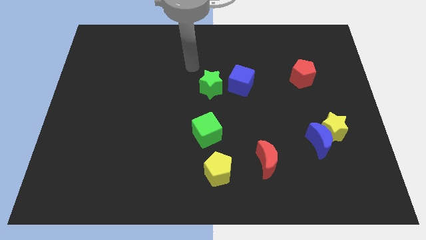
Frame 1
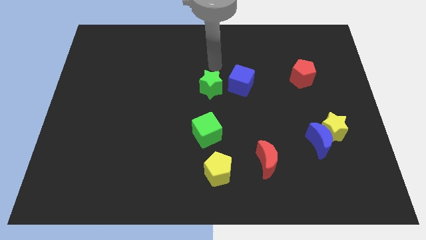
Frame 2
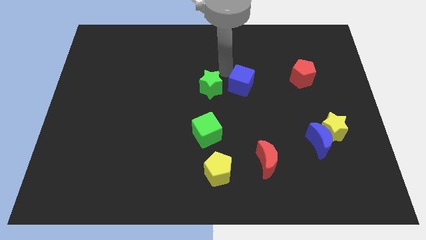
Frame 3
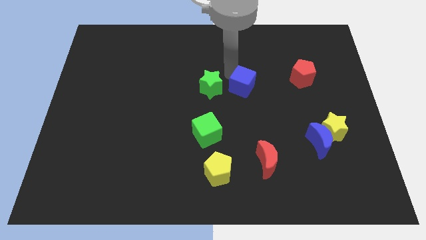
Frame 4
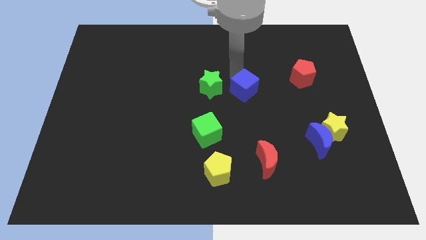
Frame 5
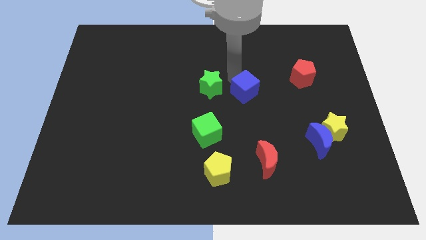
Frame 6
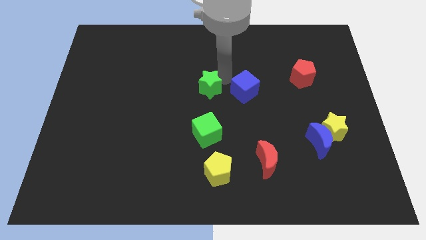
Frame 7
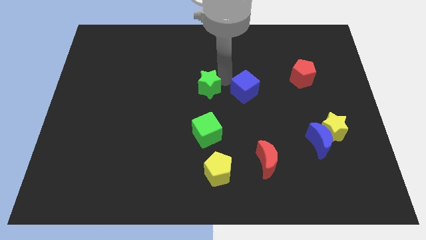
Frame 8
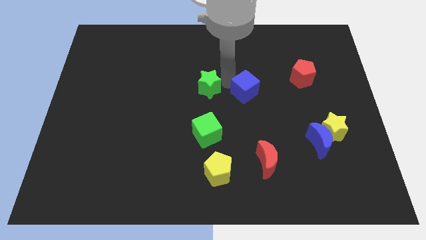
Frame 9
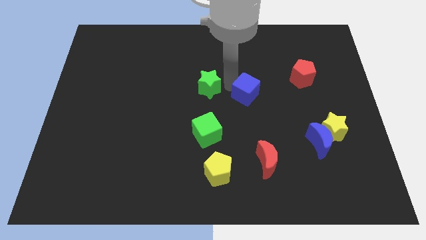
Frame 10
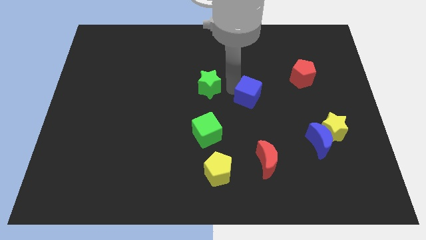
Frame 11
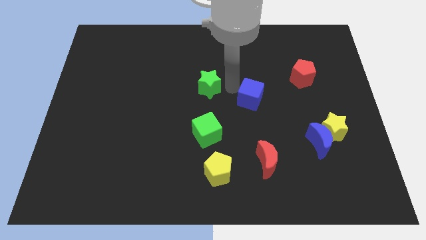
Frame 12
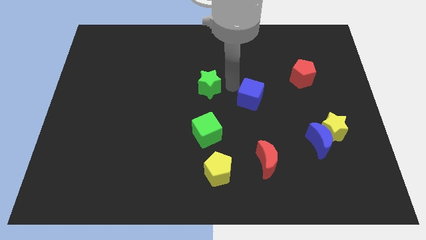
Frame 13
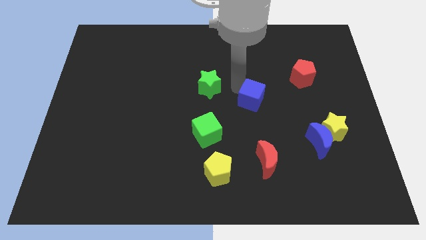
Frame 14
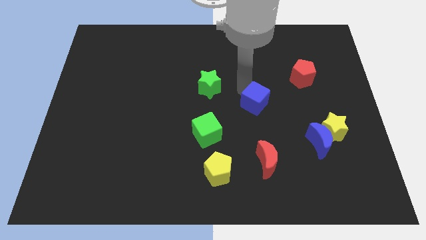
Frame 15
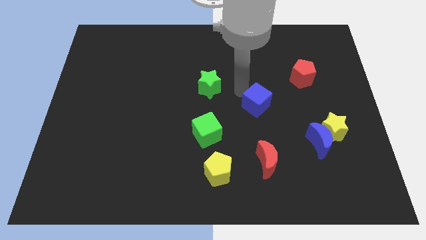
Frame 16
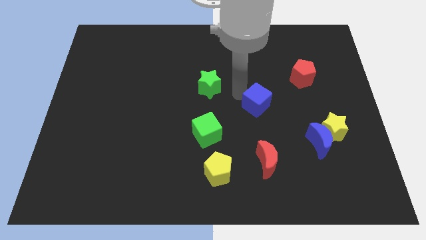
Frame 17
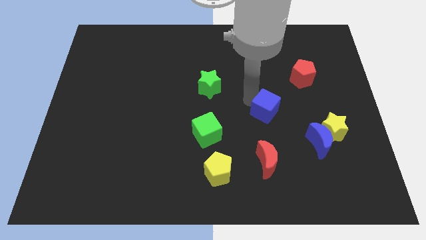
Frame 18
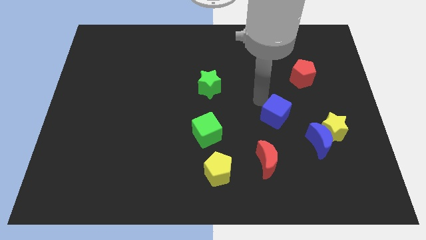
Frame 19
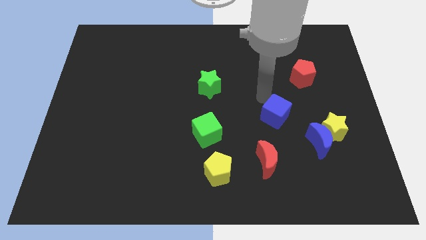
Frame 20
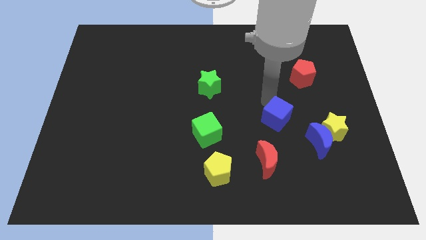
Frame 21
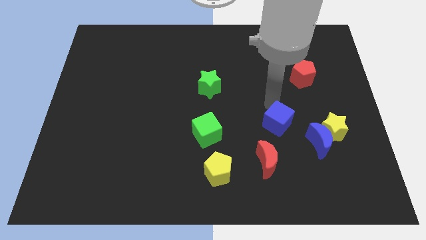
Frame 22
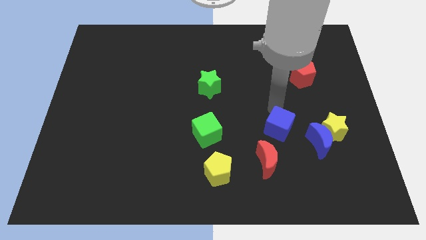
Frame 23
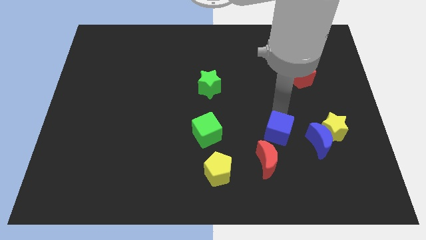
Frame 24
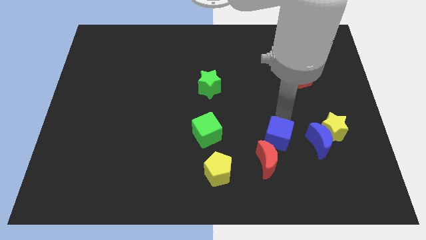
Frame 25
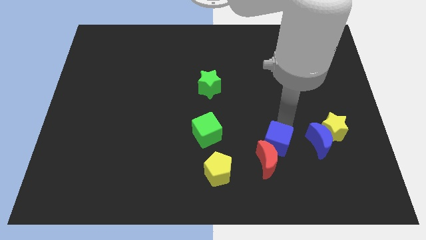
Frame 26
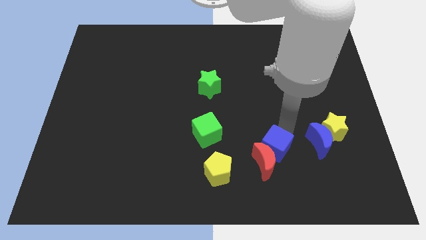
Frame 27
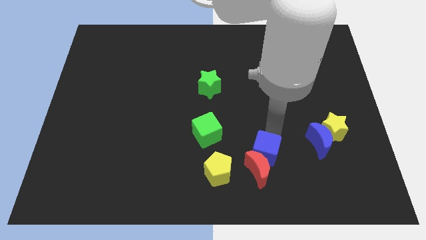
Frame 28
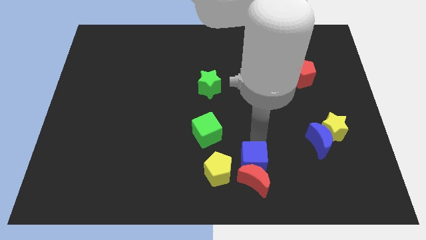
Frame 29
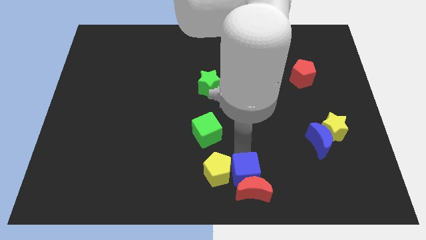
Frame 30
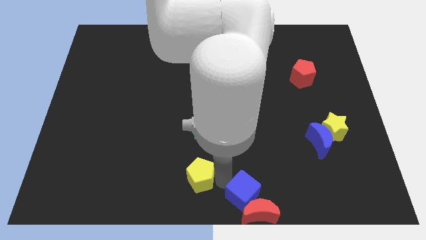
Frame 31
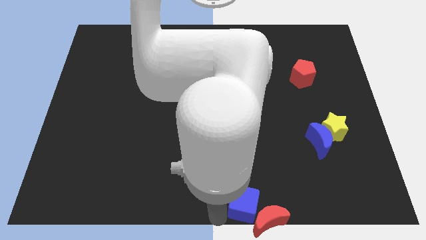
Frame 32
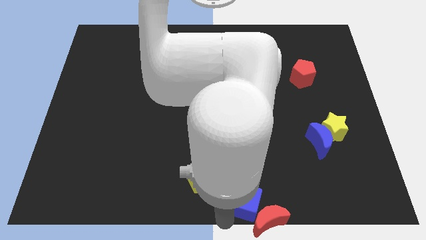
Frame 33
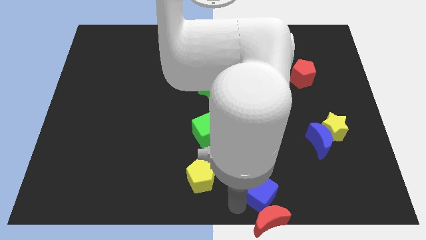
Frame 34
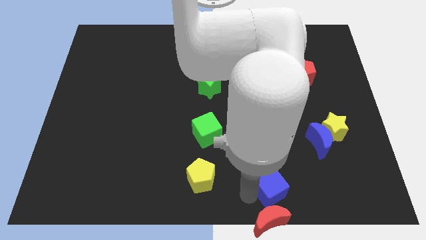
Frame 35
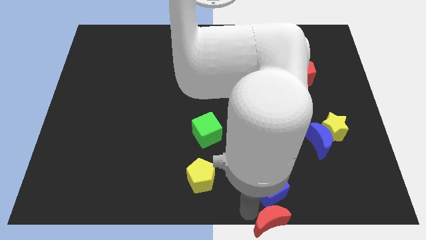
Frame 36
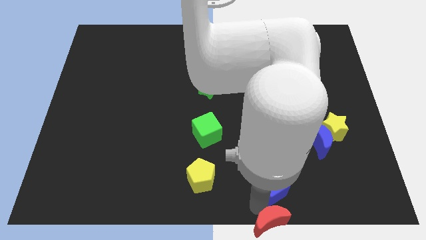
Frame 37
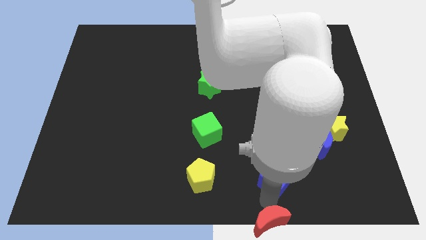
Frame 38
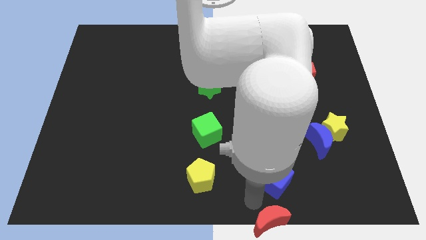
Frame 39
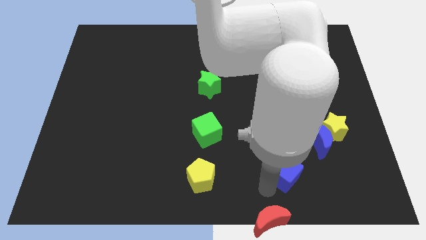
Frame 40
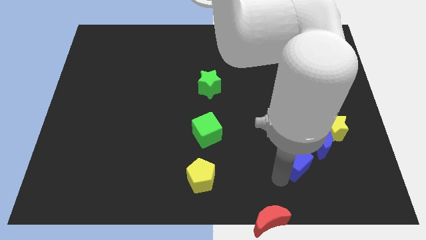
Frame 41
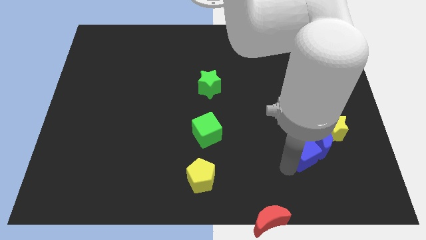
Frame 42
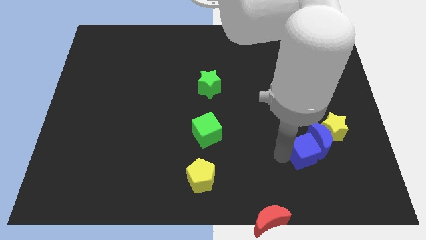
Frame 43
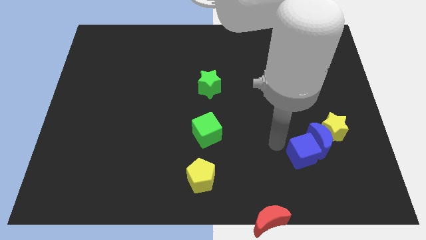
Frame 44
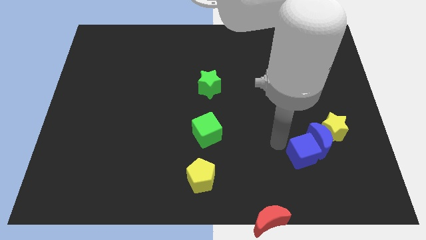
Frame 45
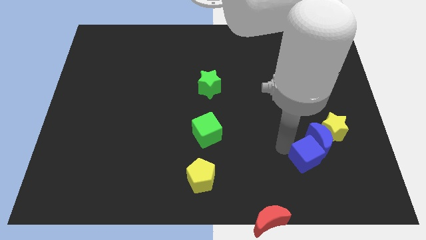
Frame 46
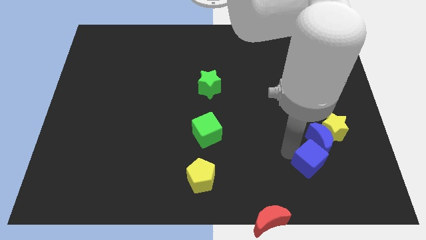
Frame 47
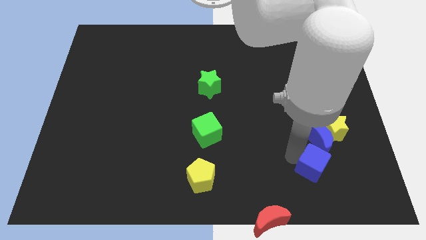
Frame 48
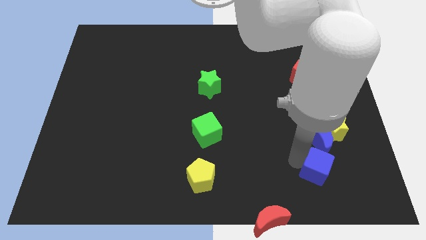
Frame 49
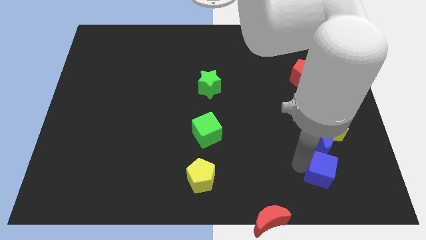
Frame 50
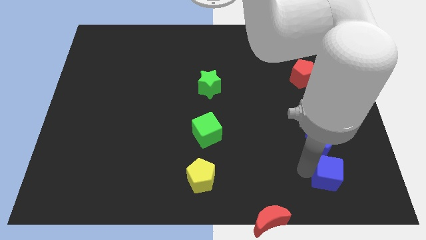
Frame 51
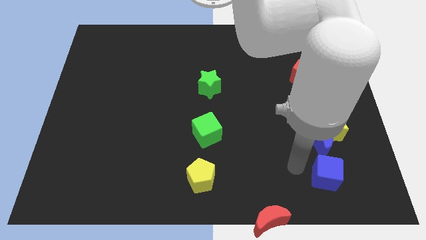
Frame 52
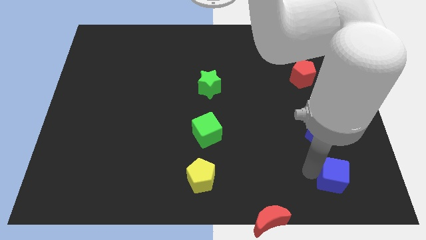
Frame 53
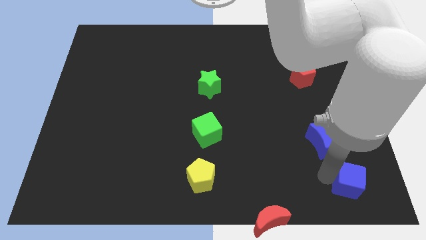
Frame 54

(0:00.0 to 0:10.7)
move the blue cube to the bottom right corner

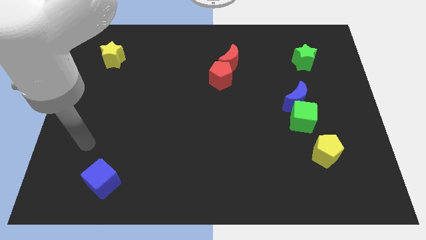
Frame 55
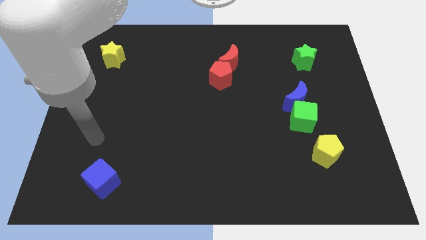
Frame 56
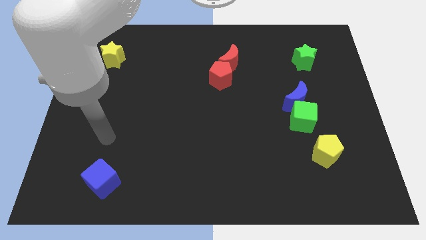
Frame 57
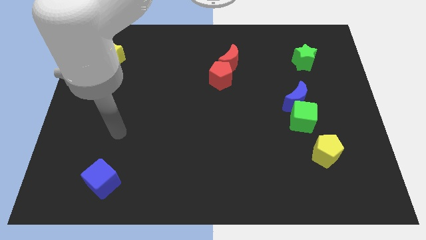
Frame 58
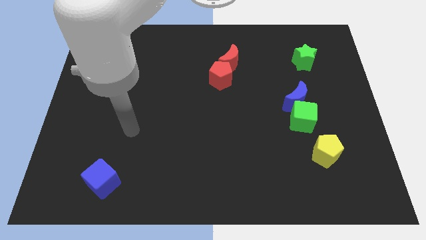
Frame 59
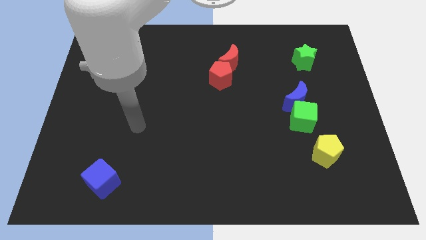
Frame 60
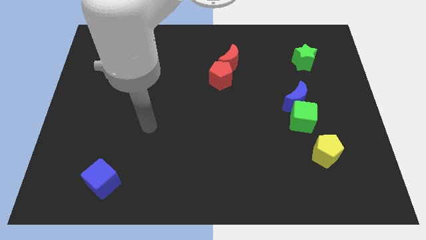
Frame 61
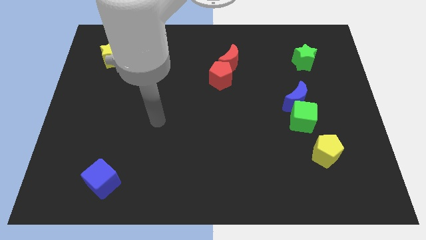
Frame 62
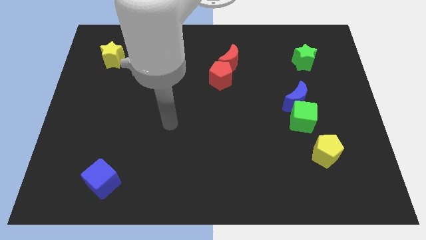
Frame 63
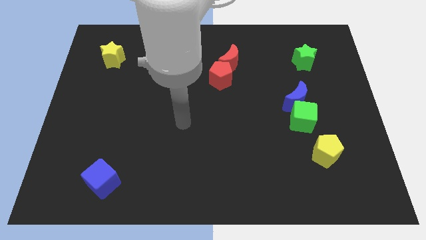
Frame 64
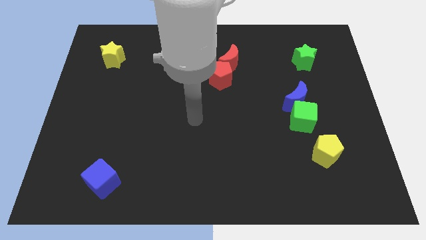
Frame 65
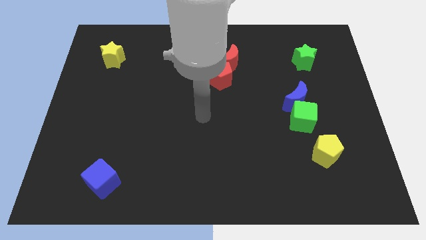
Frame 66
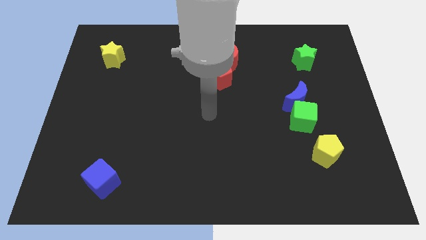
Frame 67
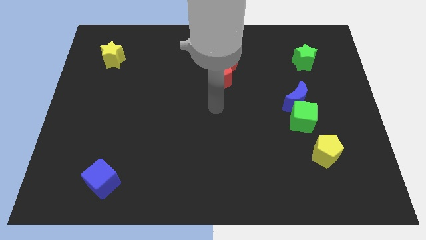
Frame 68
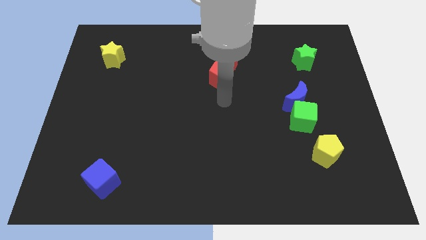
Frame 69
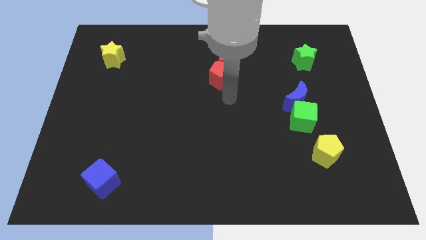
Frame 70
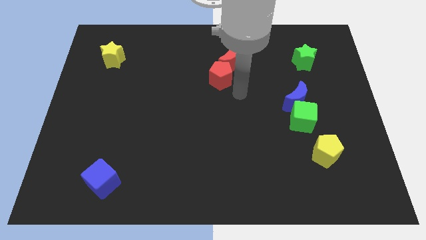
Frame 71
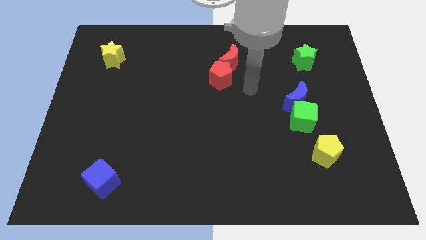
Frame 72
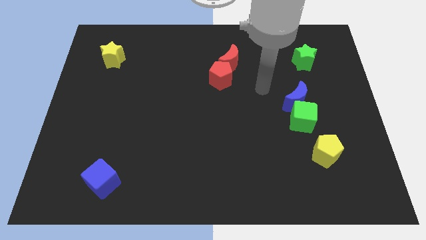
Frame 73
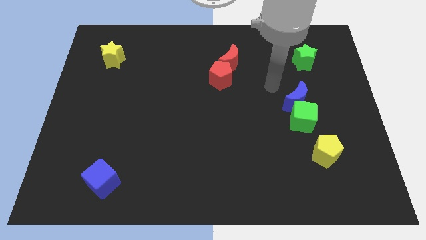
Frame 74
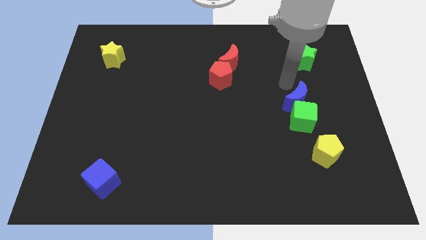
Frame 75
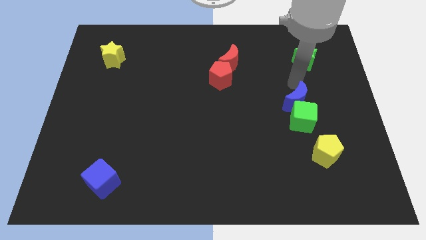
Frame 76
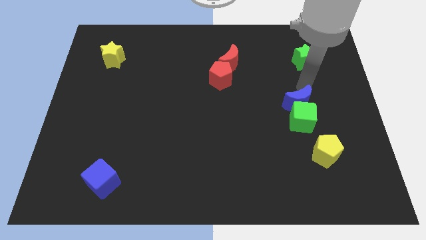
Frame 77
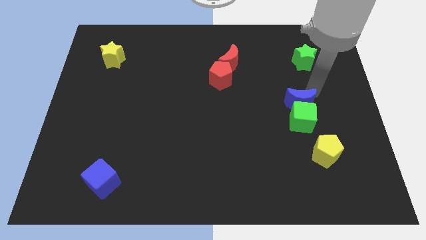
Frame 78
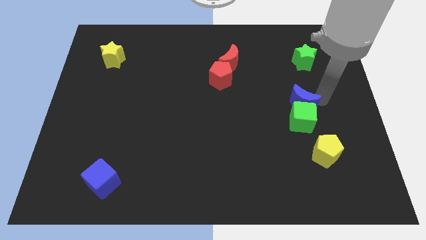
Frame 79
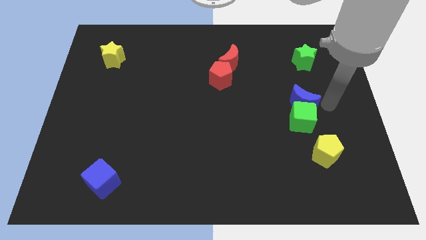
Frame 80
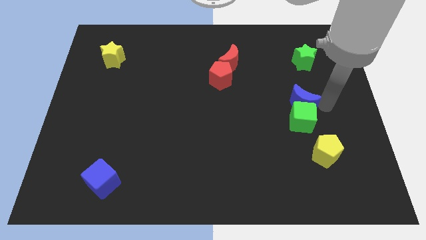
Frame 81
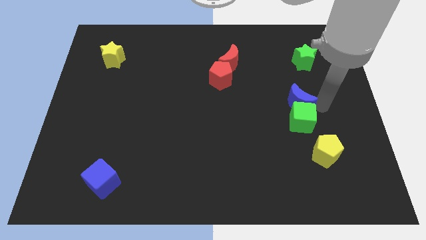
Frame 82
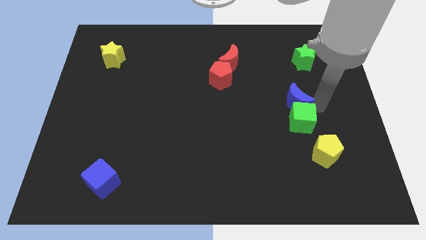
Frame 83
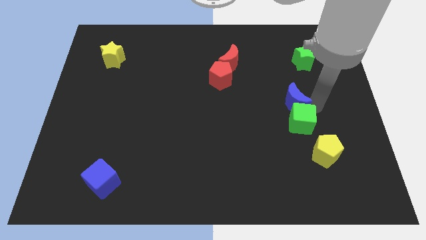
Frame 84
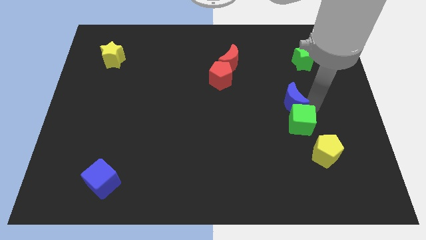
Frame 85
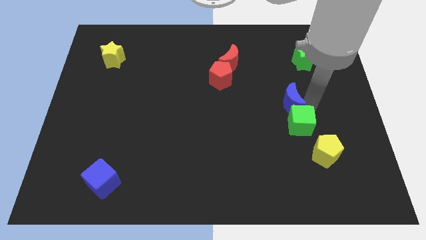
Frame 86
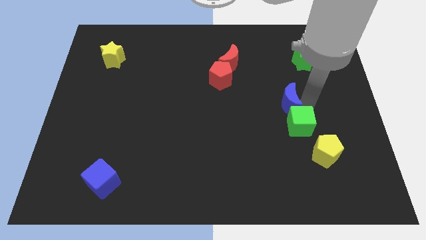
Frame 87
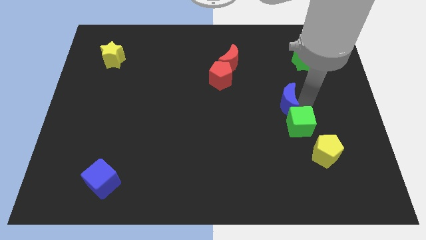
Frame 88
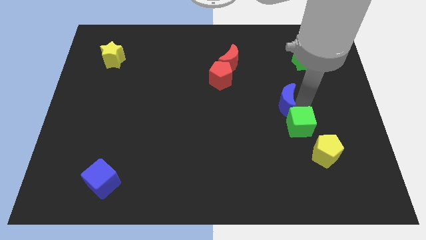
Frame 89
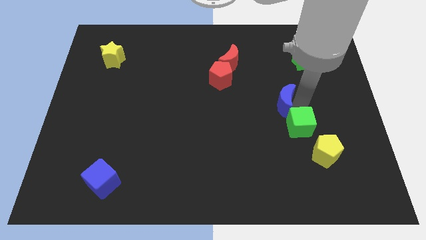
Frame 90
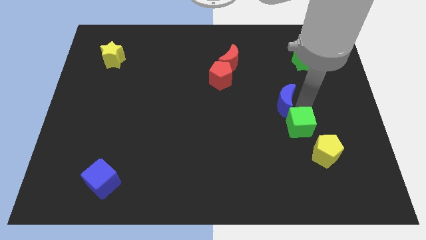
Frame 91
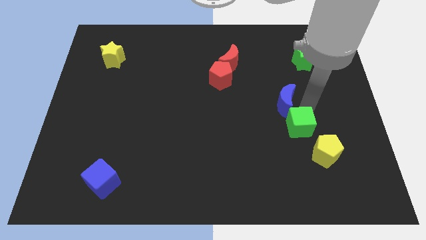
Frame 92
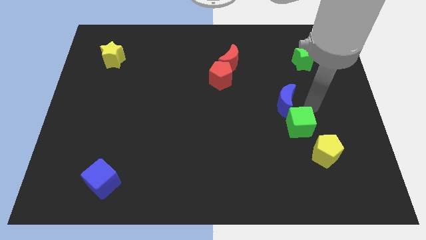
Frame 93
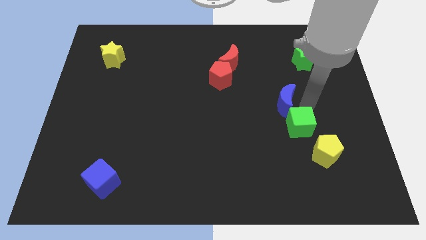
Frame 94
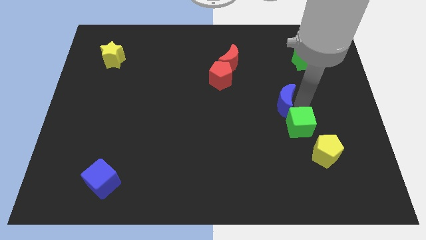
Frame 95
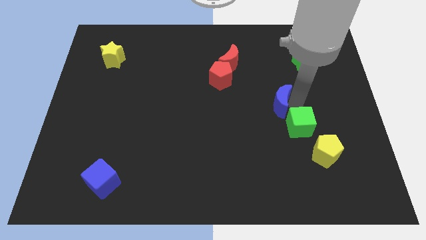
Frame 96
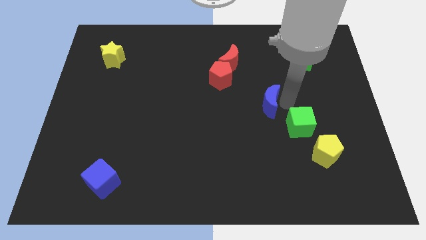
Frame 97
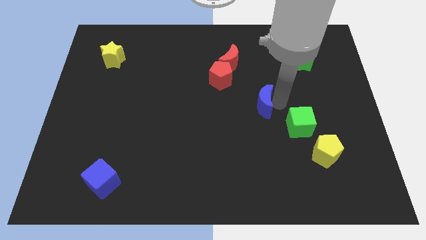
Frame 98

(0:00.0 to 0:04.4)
put the blue moon to the center of the board
